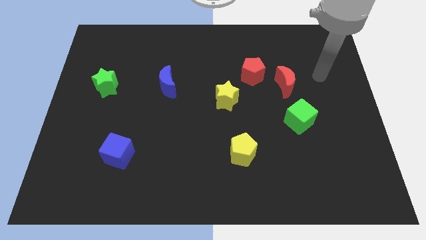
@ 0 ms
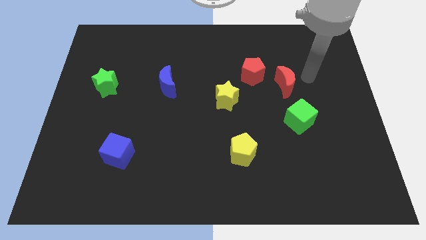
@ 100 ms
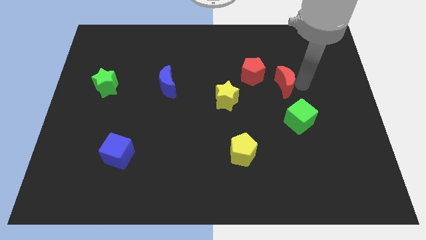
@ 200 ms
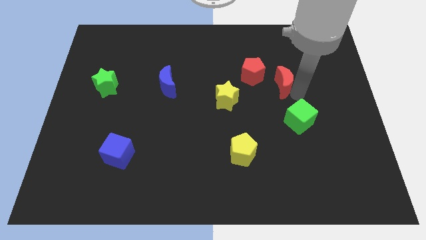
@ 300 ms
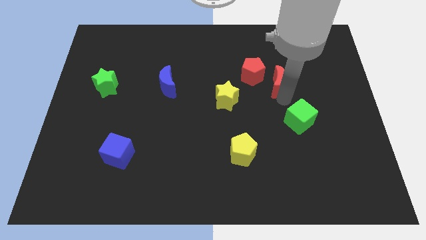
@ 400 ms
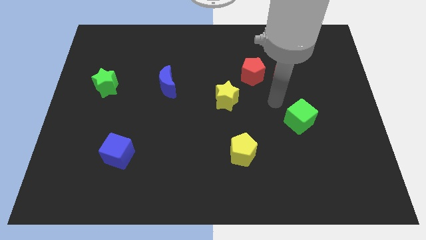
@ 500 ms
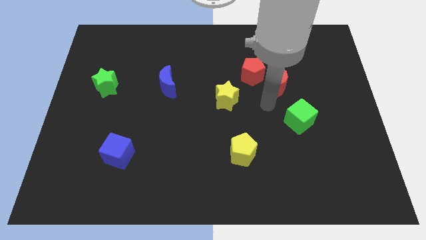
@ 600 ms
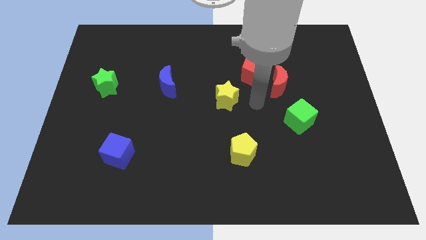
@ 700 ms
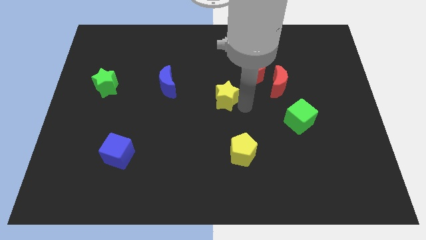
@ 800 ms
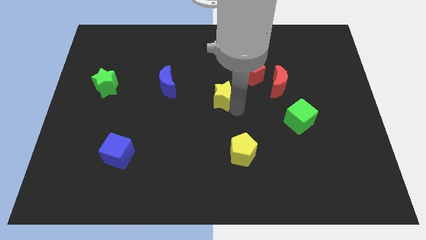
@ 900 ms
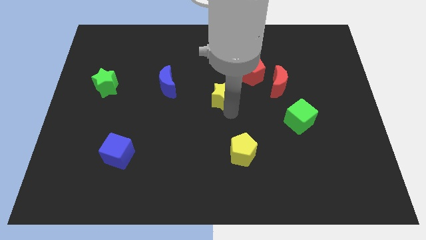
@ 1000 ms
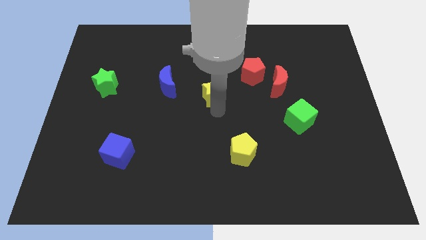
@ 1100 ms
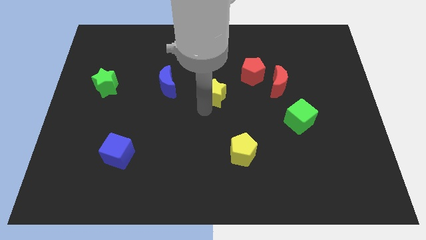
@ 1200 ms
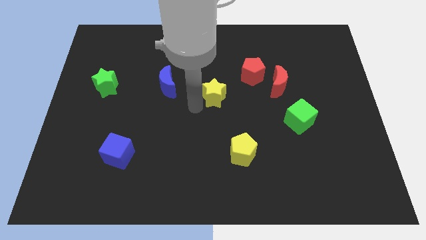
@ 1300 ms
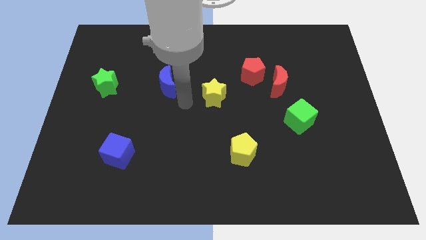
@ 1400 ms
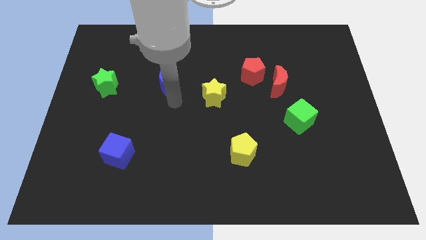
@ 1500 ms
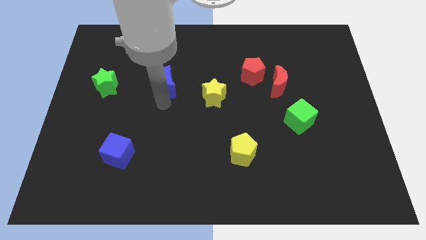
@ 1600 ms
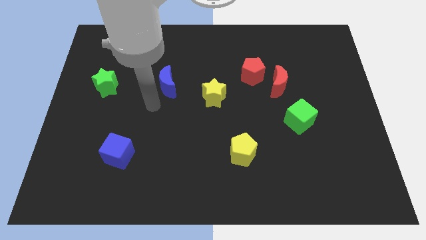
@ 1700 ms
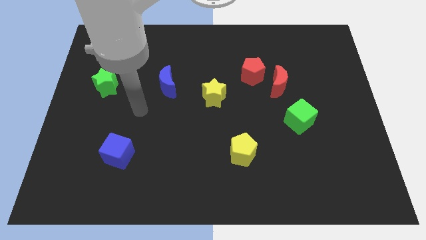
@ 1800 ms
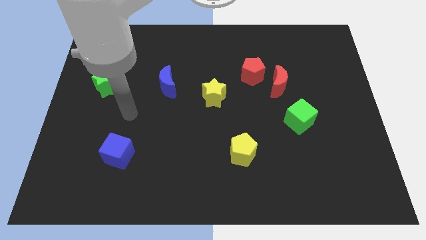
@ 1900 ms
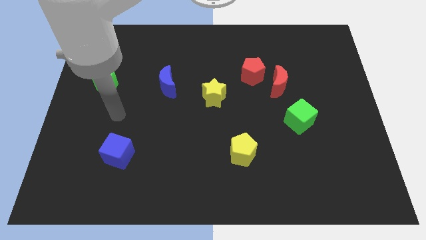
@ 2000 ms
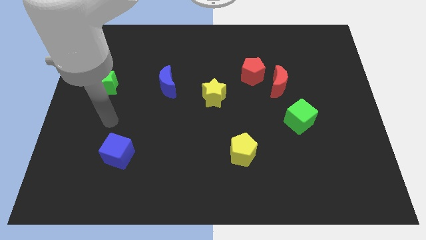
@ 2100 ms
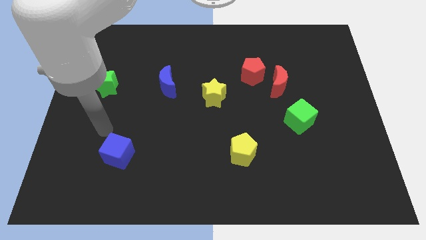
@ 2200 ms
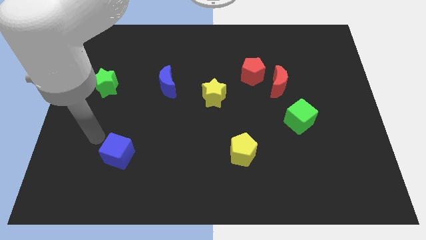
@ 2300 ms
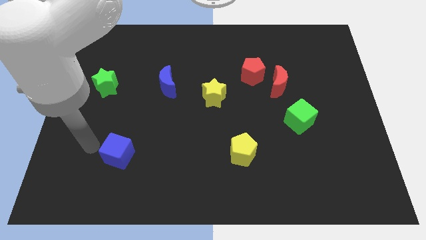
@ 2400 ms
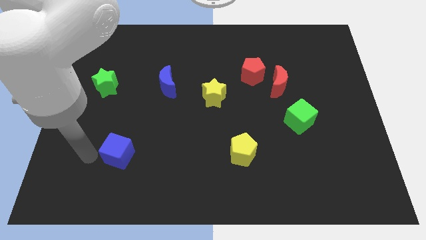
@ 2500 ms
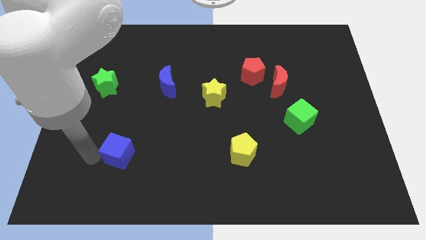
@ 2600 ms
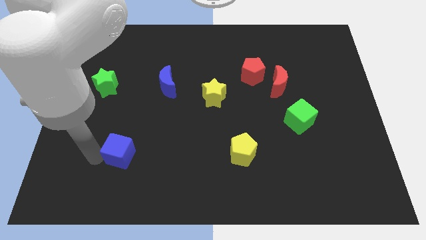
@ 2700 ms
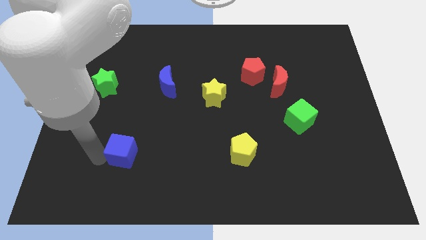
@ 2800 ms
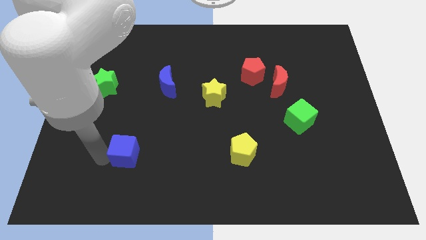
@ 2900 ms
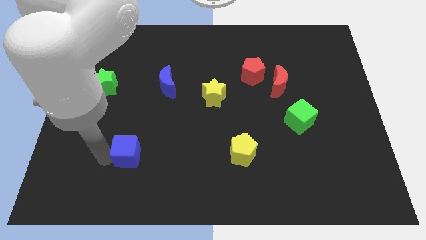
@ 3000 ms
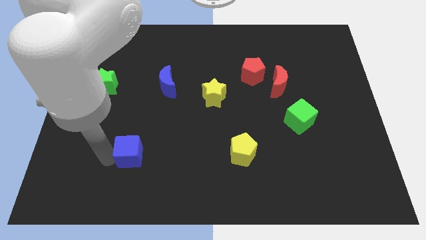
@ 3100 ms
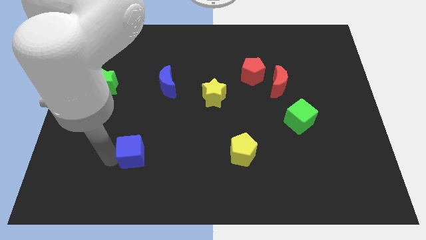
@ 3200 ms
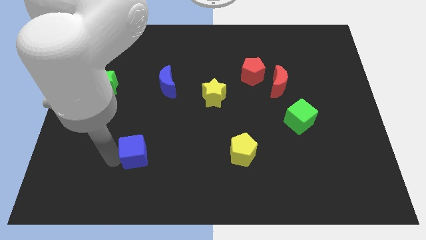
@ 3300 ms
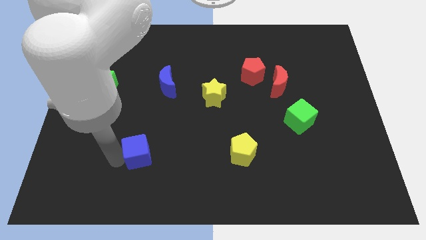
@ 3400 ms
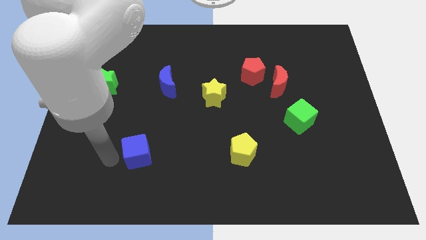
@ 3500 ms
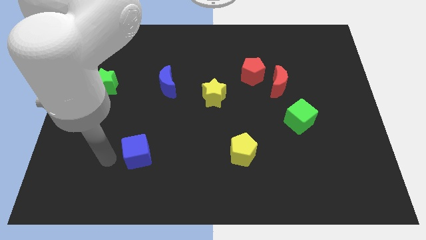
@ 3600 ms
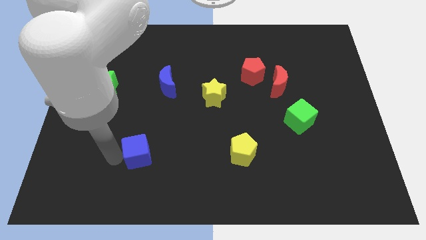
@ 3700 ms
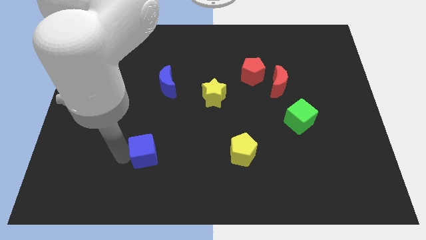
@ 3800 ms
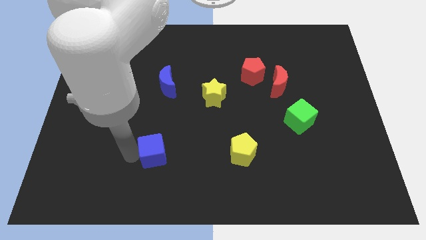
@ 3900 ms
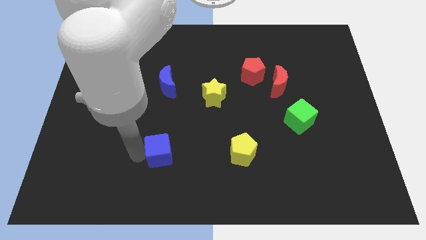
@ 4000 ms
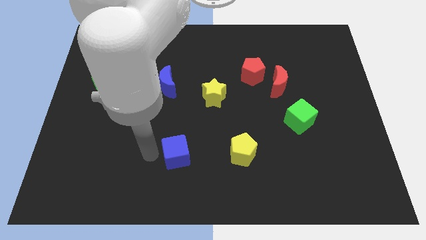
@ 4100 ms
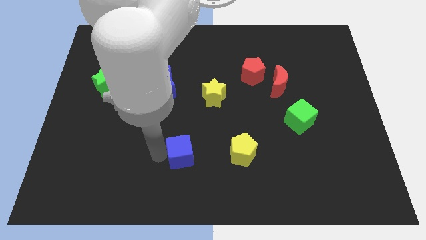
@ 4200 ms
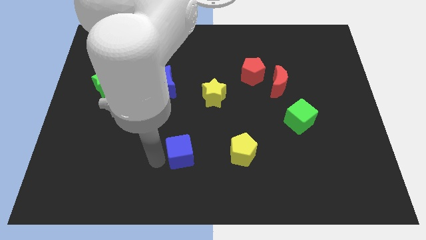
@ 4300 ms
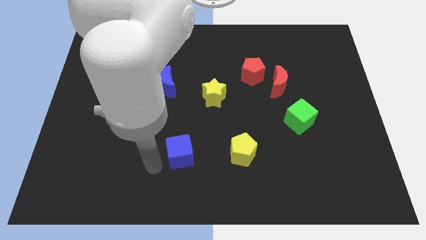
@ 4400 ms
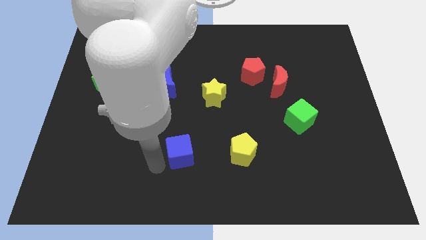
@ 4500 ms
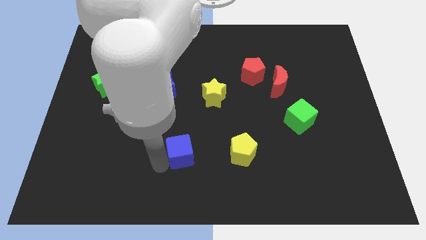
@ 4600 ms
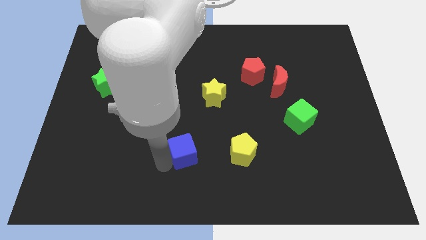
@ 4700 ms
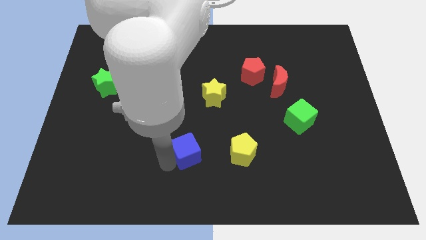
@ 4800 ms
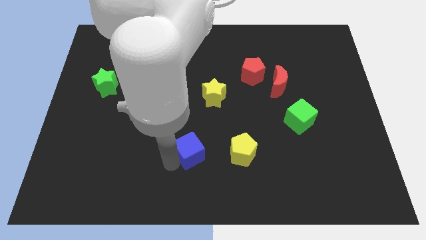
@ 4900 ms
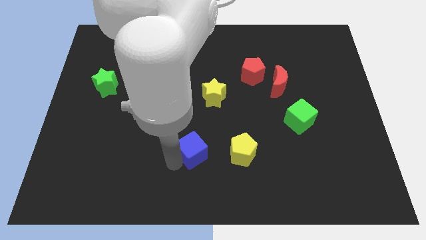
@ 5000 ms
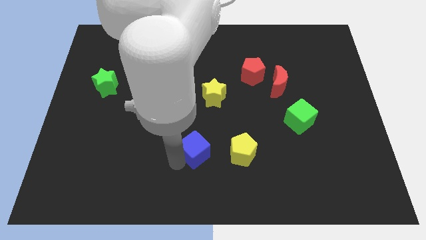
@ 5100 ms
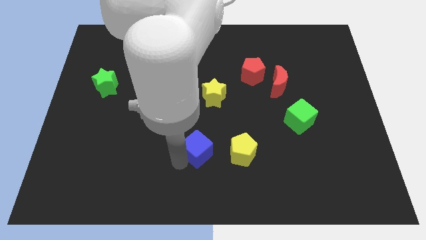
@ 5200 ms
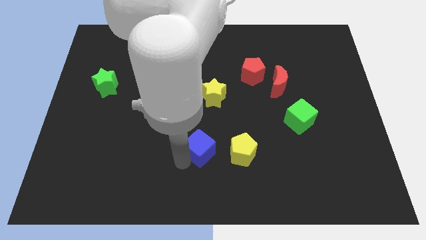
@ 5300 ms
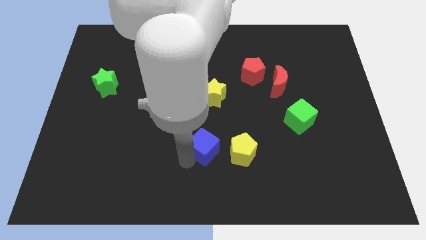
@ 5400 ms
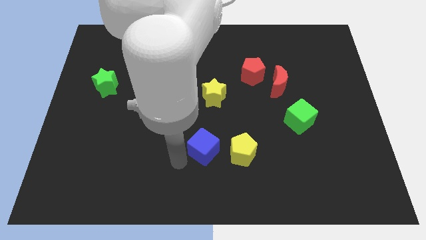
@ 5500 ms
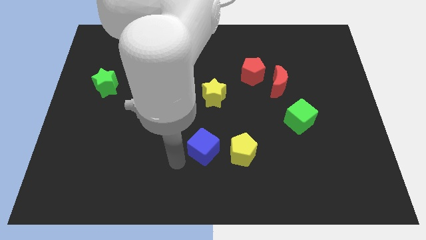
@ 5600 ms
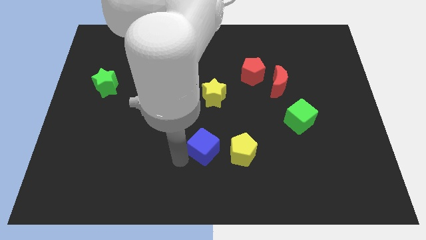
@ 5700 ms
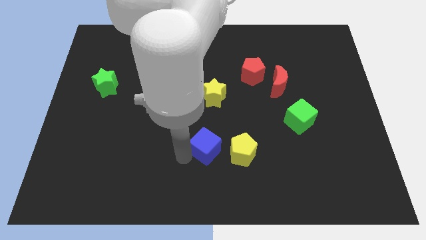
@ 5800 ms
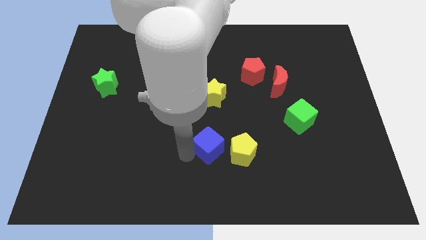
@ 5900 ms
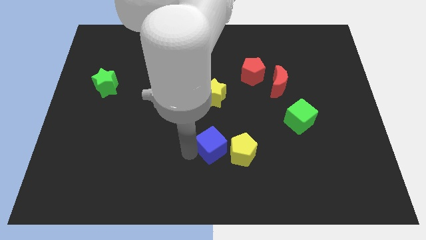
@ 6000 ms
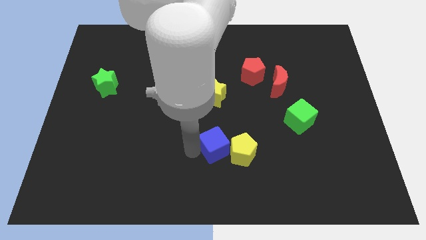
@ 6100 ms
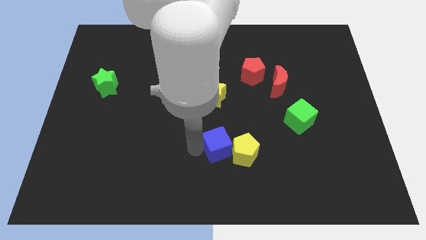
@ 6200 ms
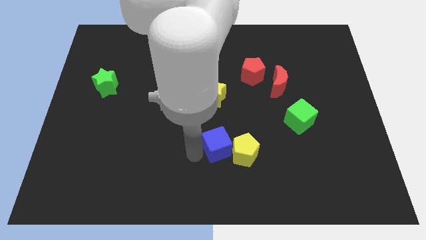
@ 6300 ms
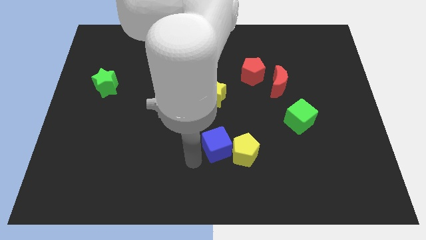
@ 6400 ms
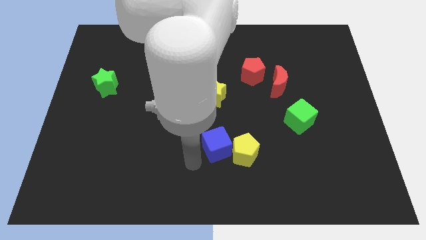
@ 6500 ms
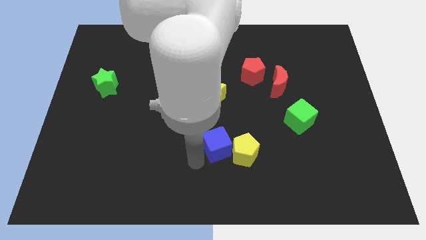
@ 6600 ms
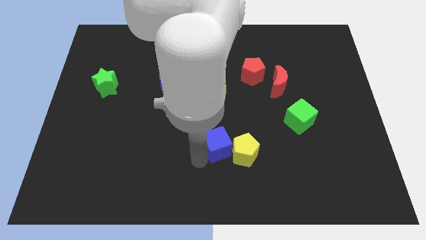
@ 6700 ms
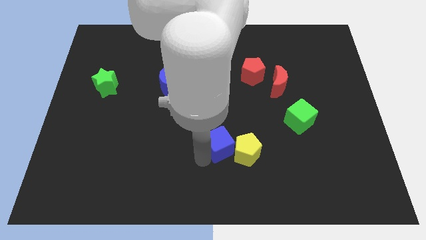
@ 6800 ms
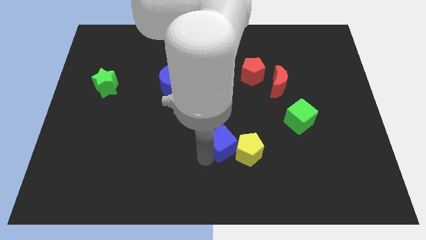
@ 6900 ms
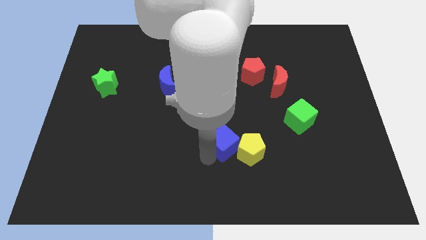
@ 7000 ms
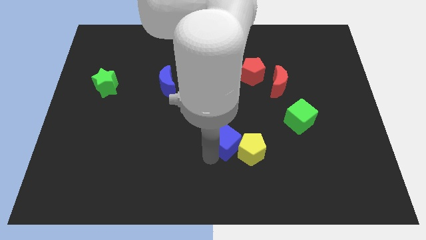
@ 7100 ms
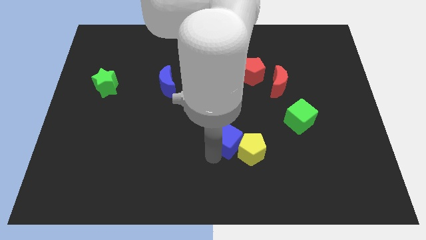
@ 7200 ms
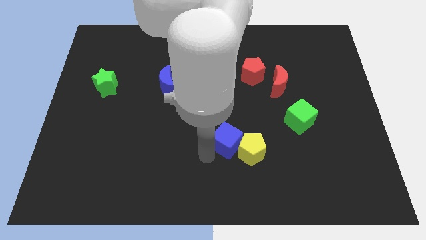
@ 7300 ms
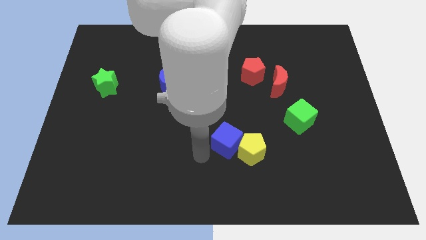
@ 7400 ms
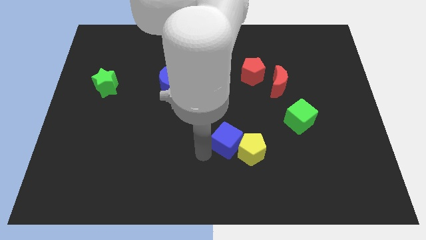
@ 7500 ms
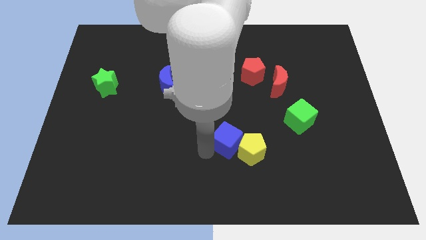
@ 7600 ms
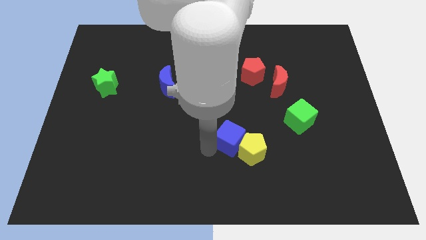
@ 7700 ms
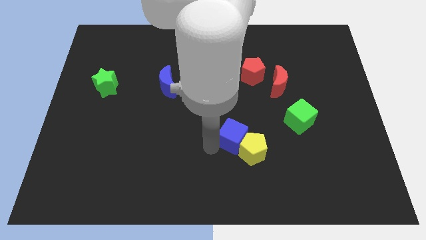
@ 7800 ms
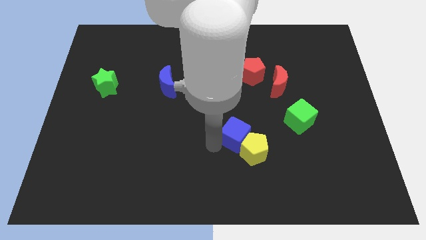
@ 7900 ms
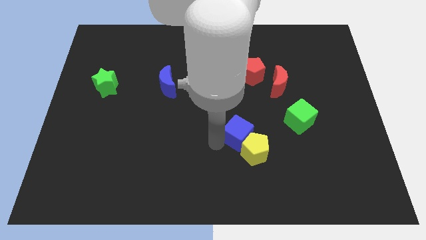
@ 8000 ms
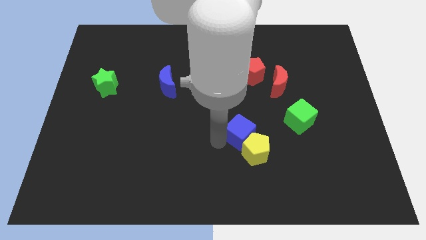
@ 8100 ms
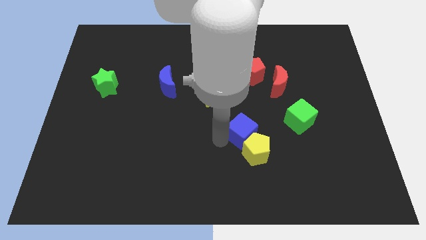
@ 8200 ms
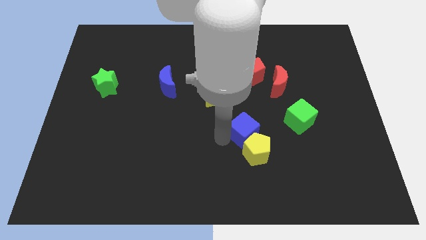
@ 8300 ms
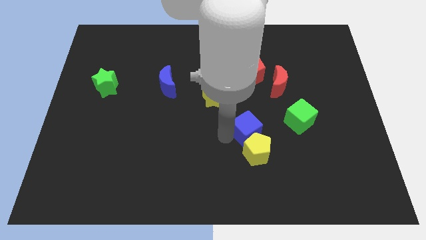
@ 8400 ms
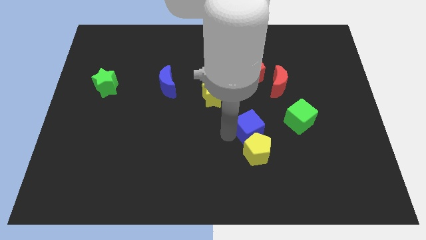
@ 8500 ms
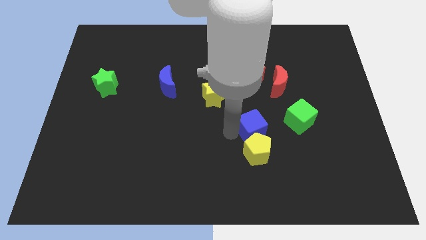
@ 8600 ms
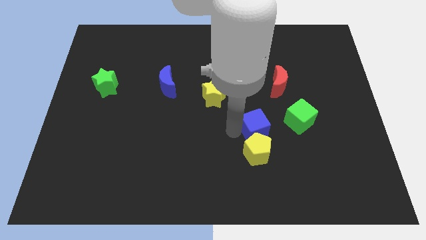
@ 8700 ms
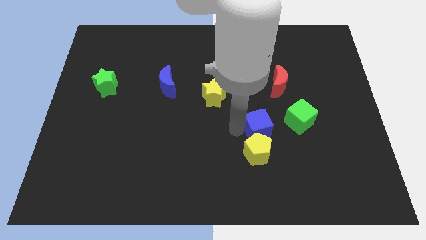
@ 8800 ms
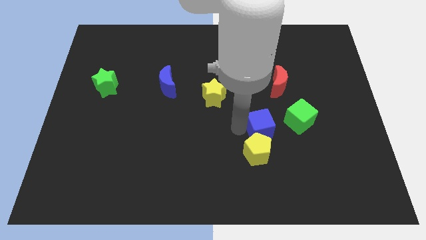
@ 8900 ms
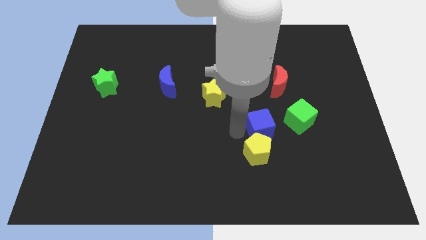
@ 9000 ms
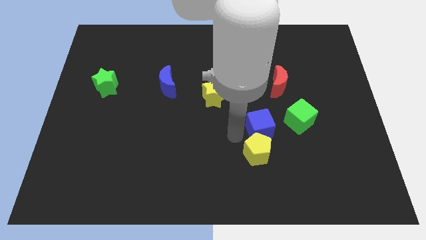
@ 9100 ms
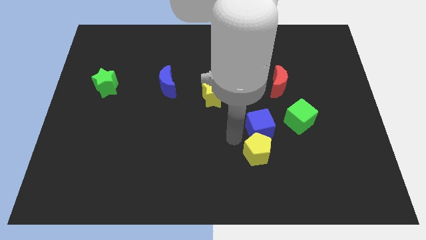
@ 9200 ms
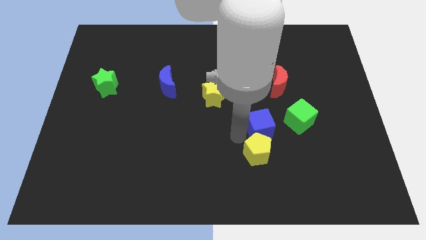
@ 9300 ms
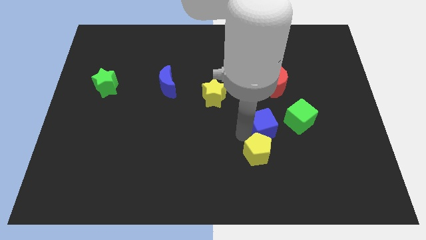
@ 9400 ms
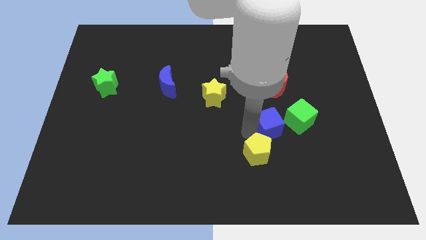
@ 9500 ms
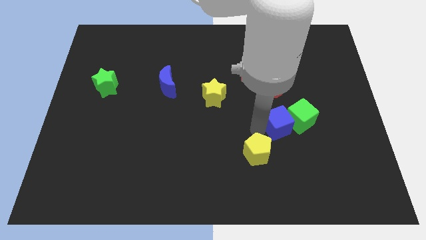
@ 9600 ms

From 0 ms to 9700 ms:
move the blue cube towards the green cube
